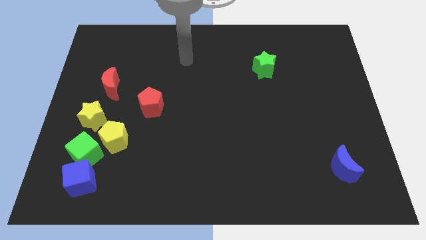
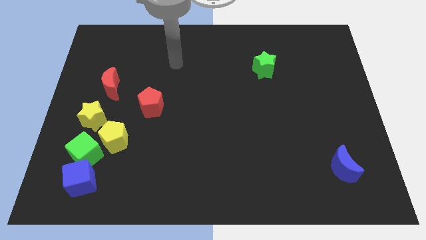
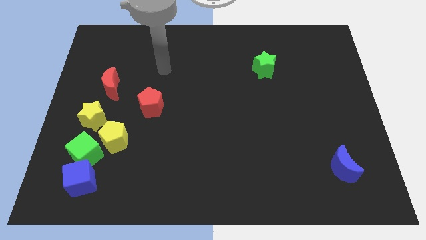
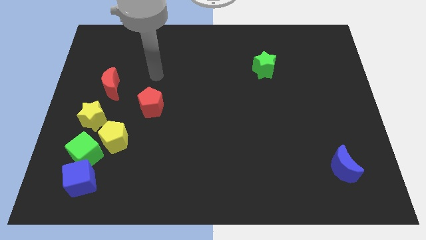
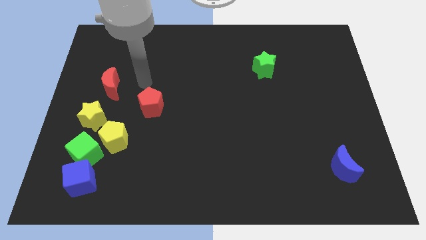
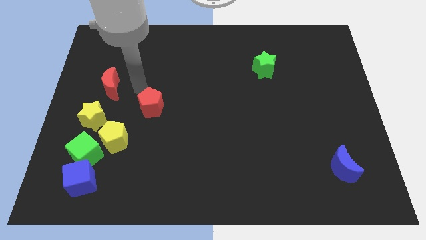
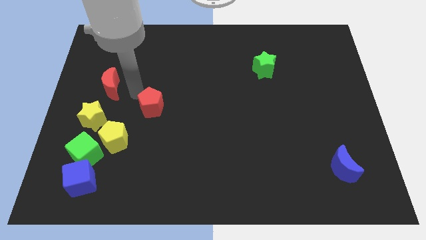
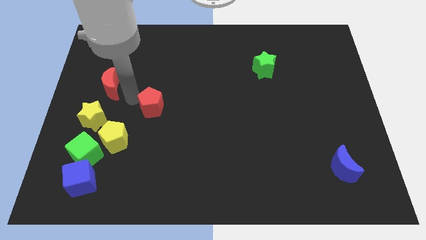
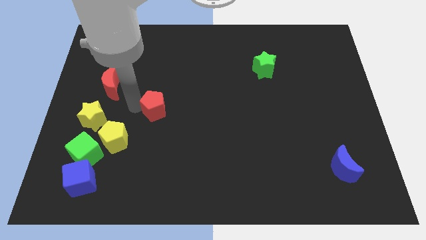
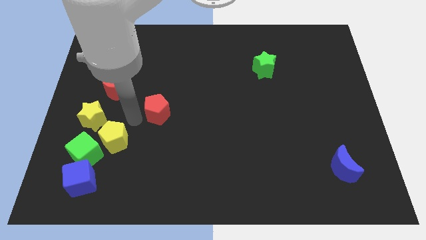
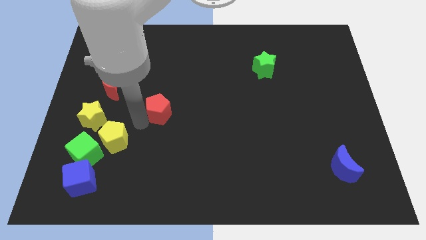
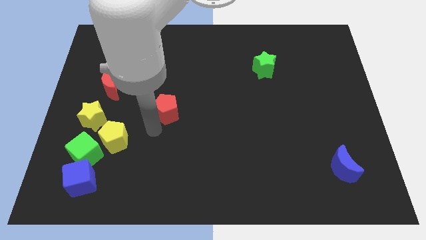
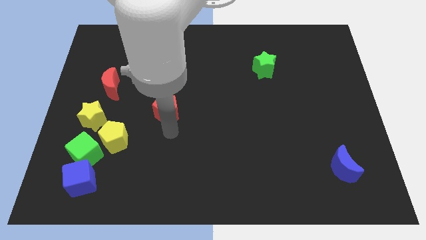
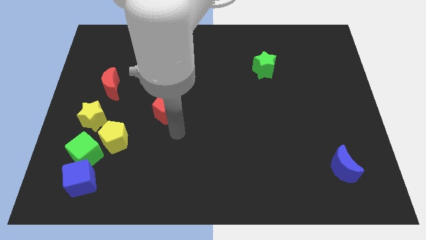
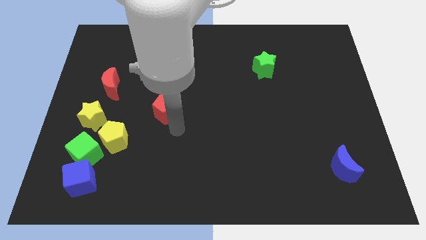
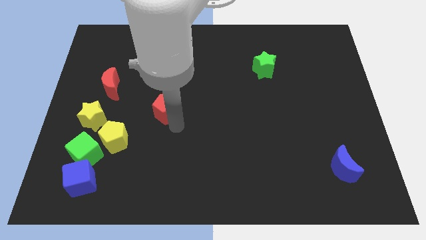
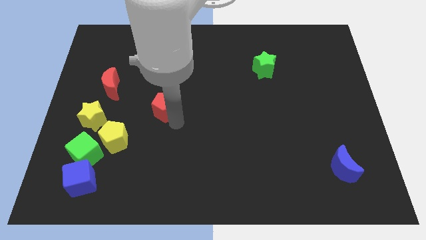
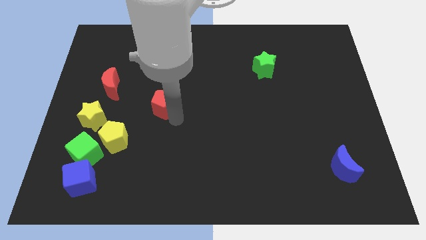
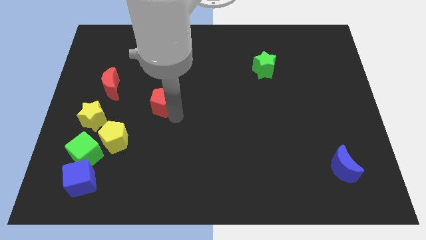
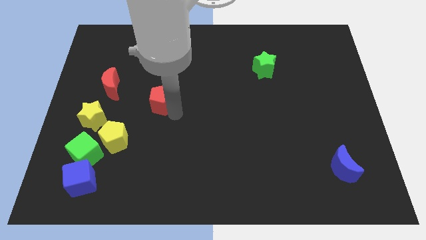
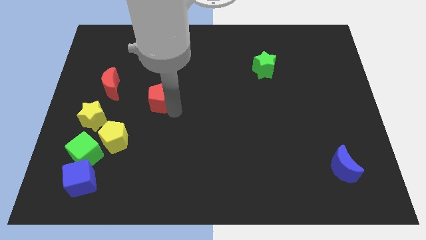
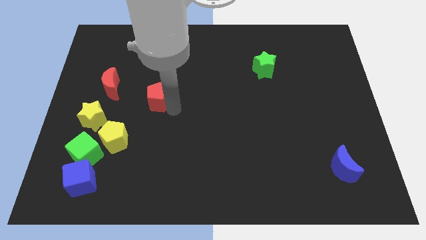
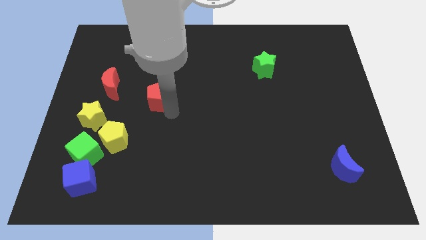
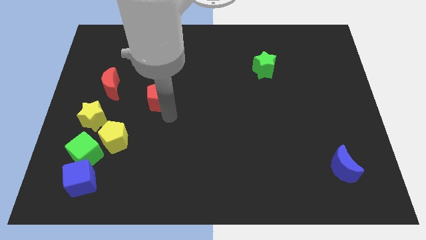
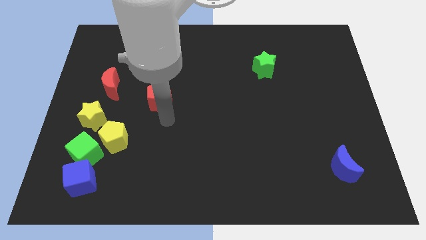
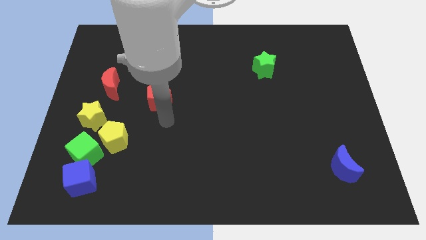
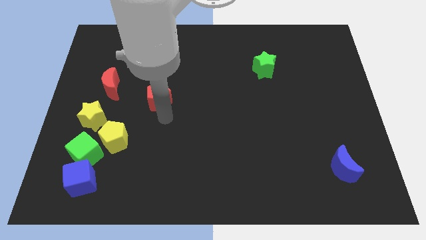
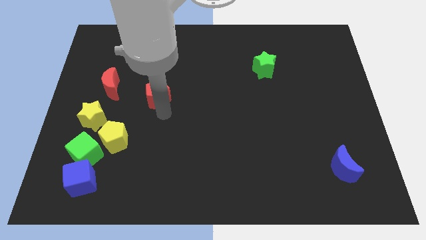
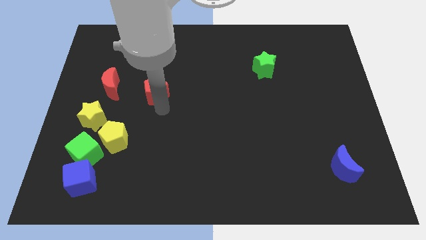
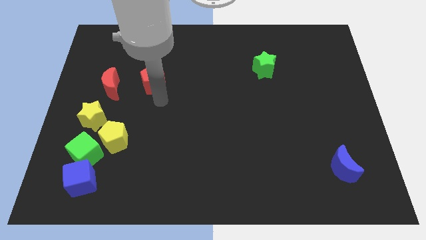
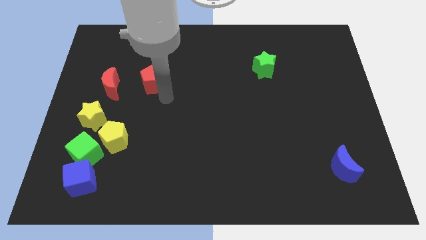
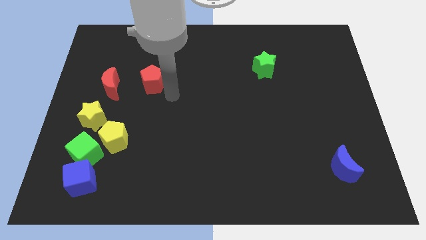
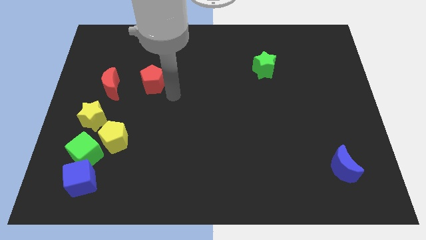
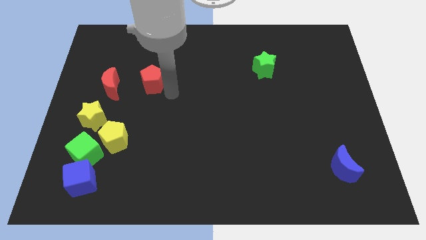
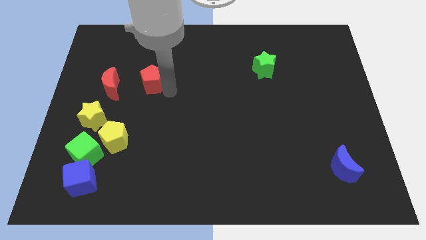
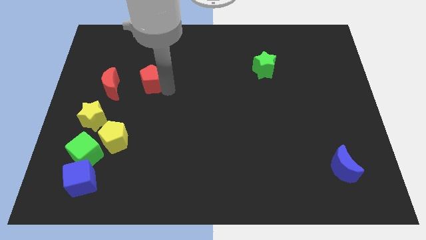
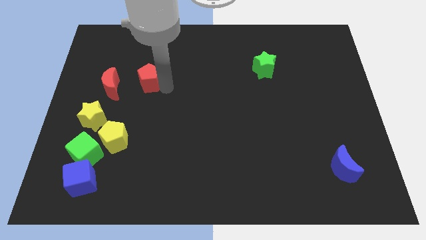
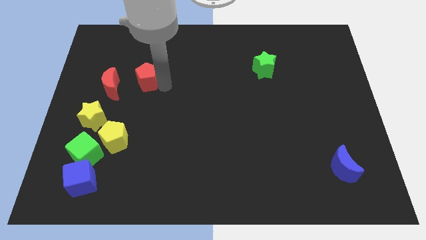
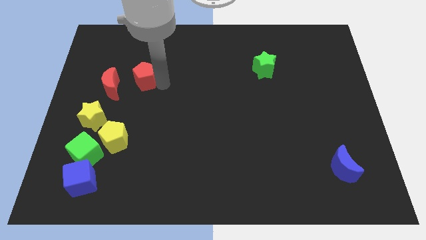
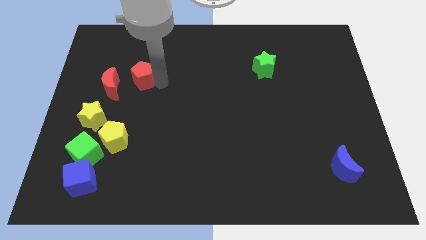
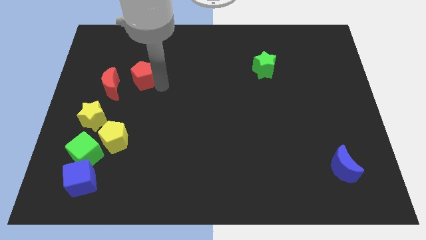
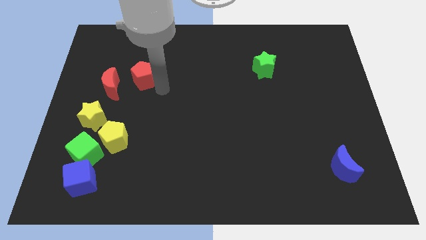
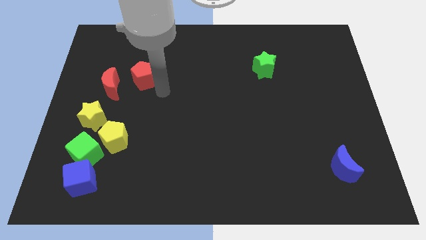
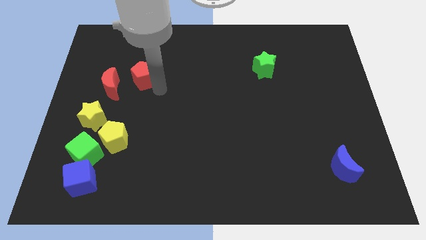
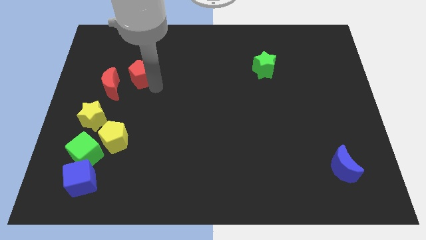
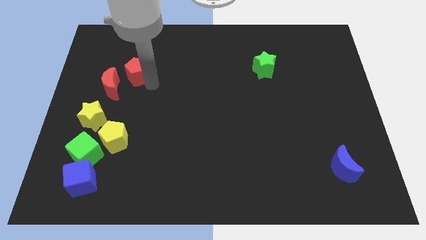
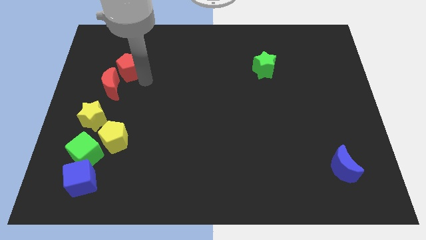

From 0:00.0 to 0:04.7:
push the red pentagon to the top of the red moon

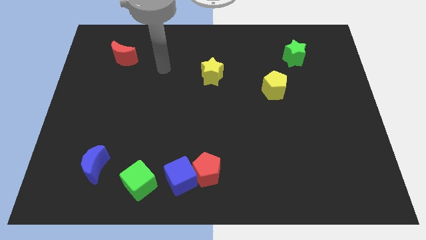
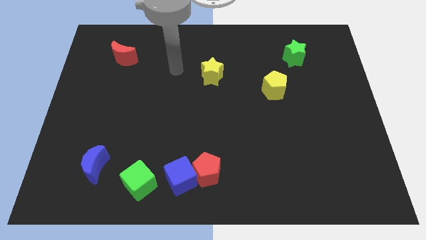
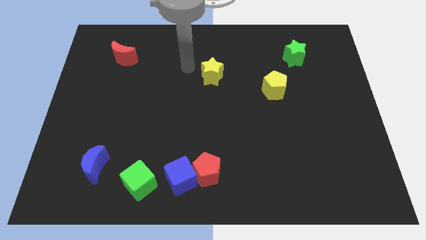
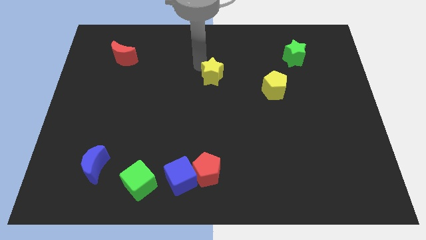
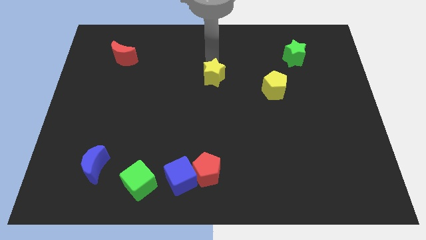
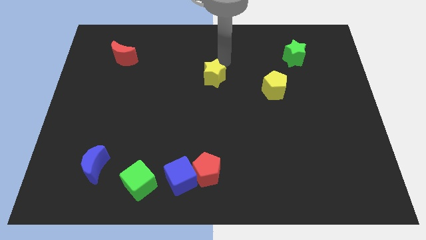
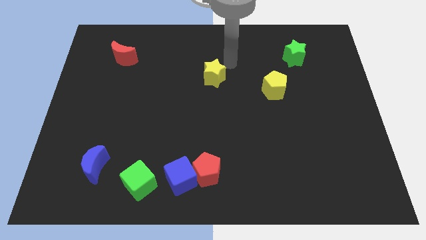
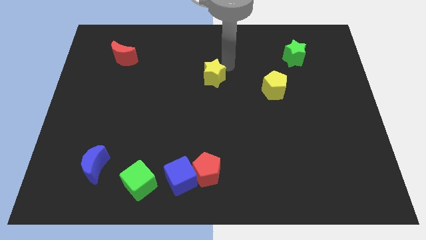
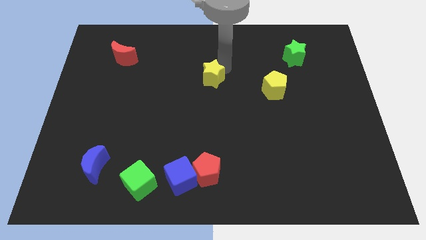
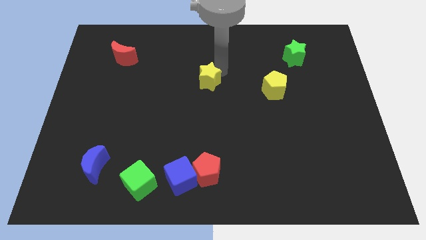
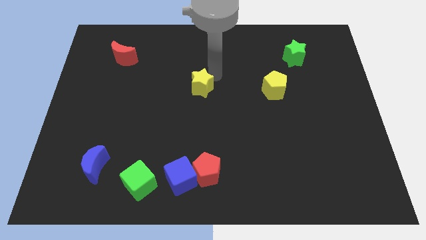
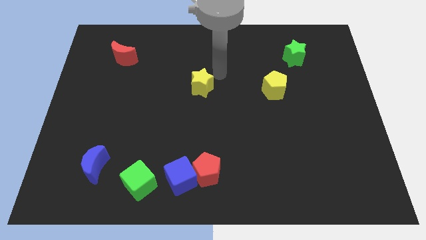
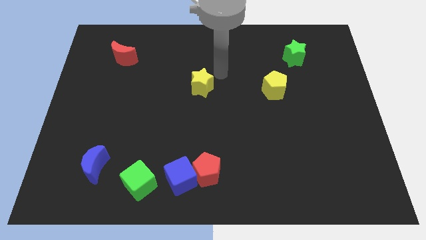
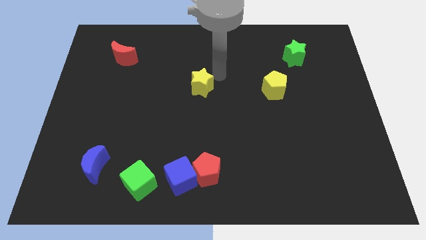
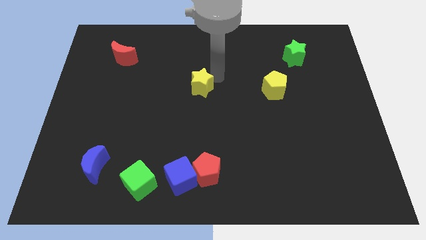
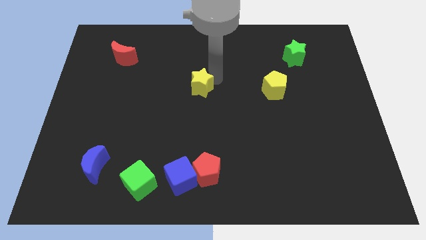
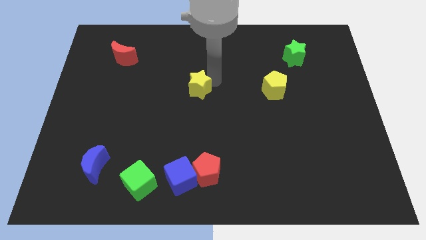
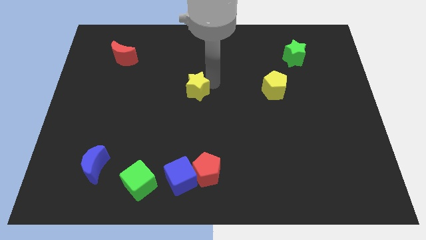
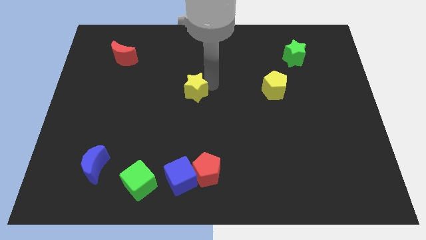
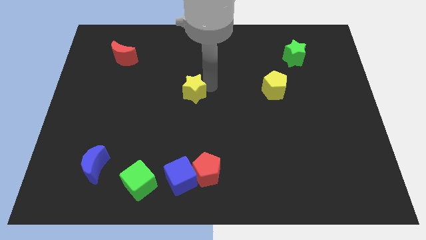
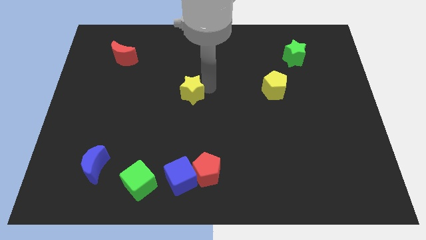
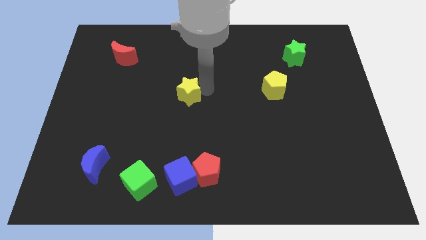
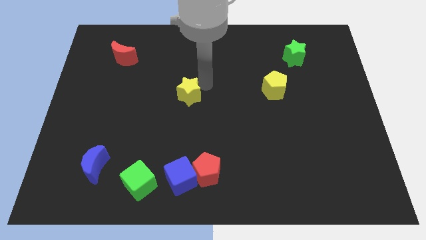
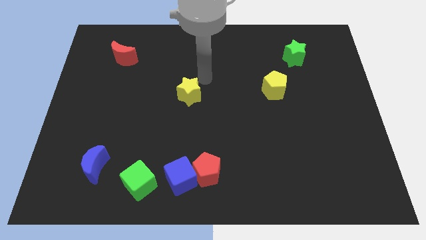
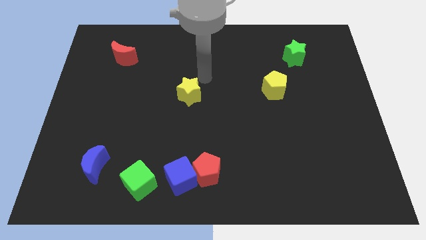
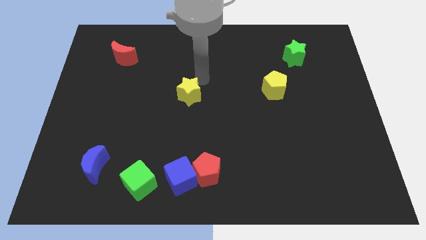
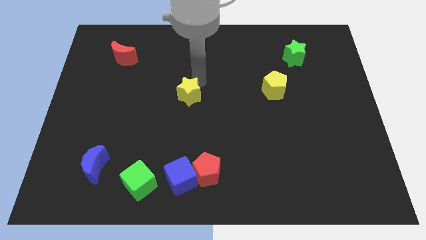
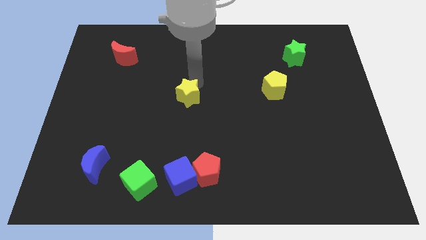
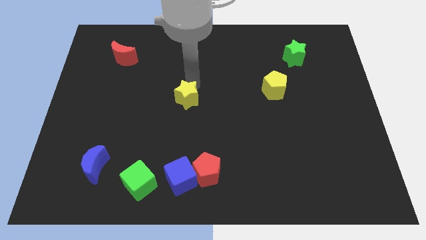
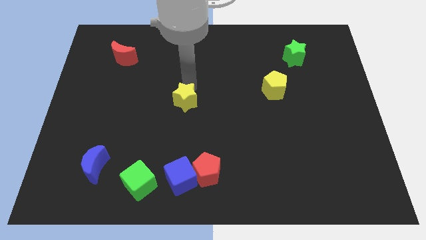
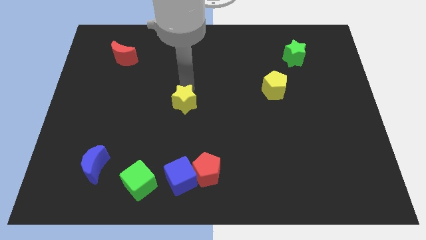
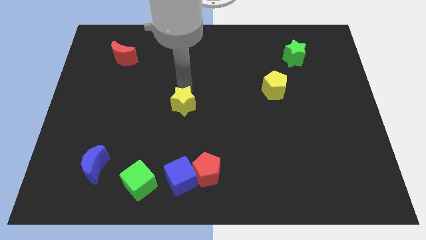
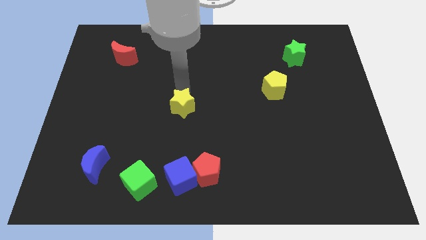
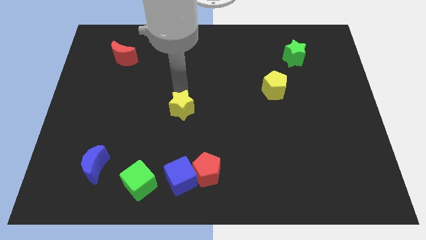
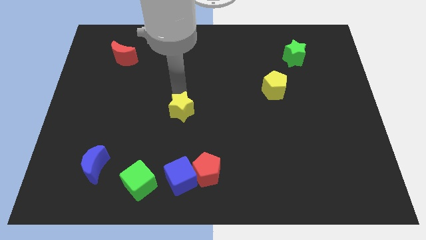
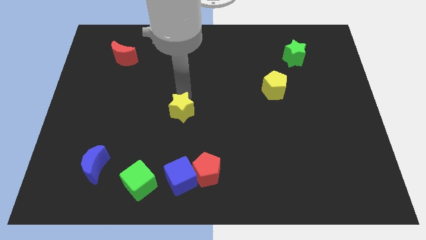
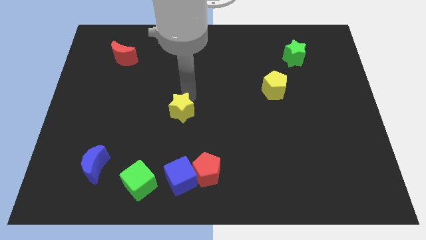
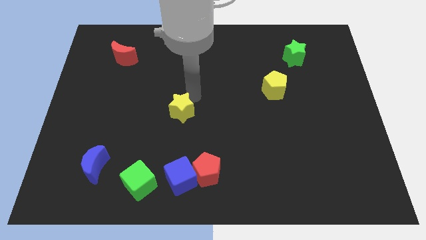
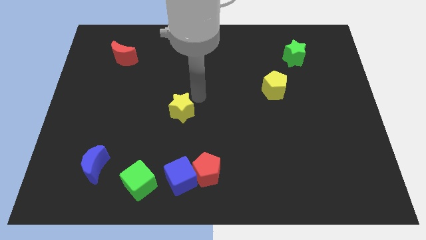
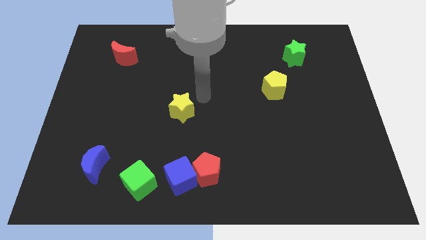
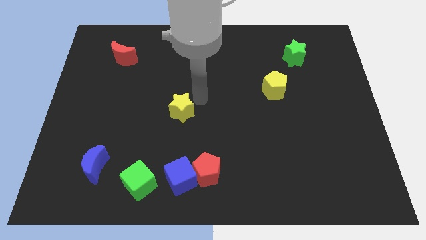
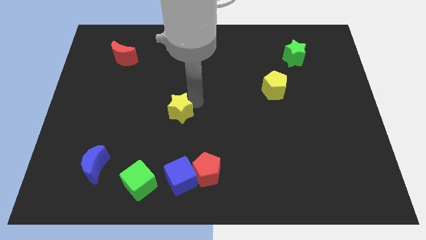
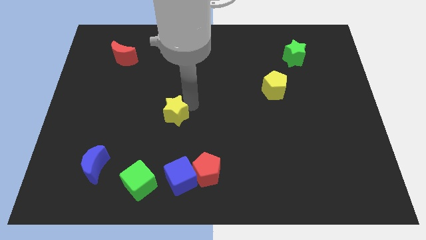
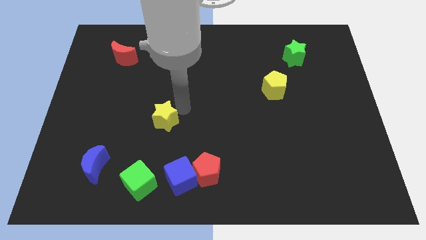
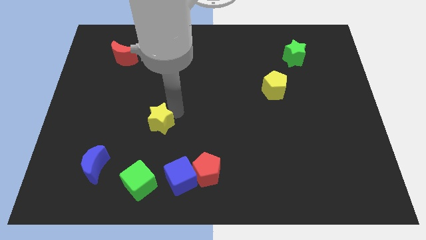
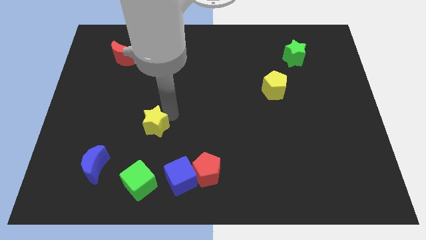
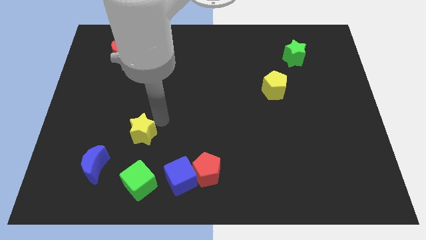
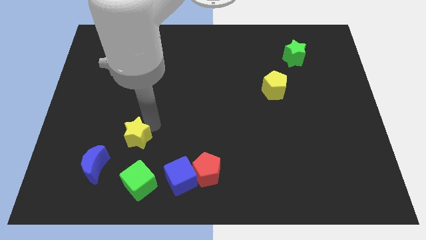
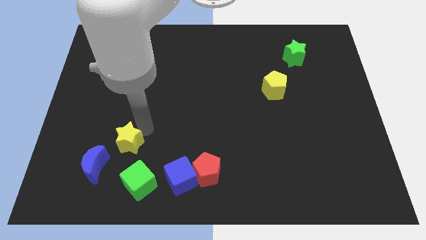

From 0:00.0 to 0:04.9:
put the yellow star to the top left side of the green cube
